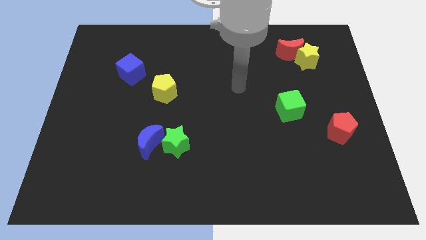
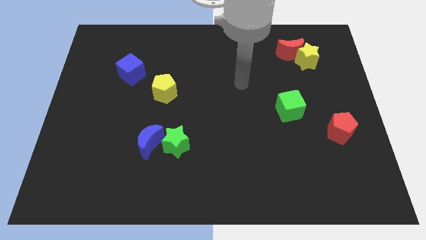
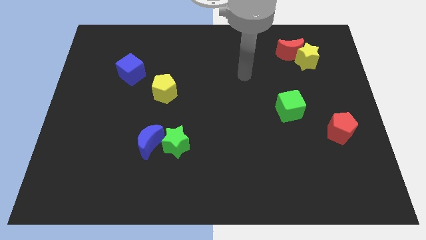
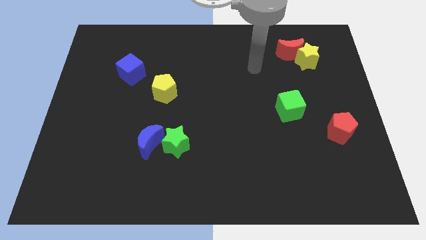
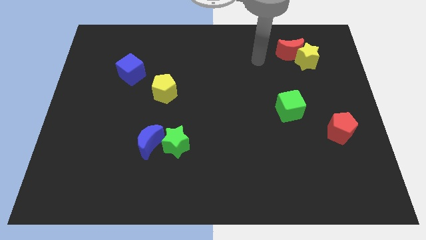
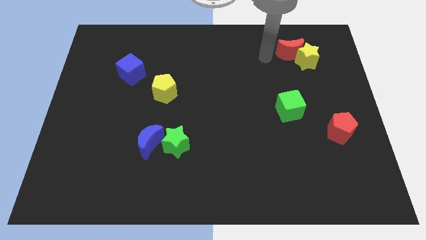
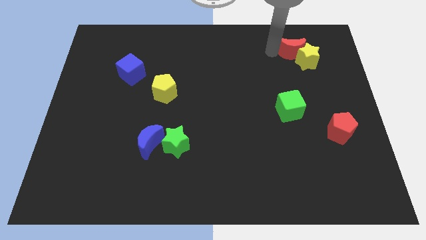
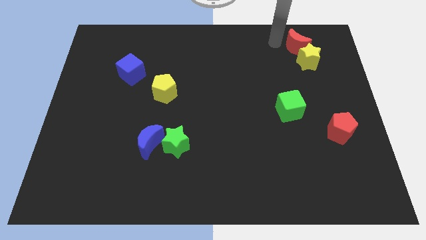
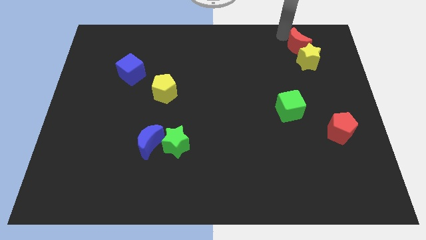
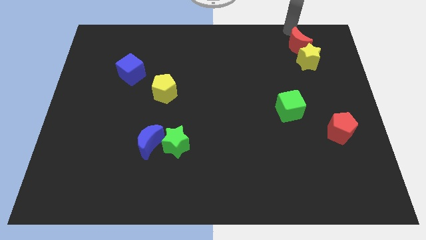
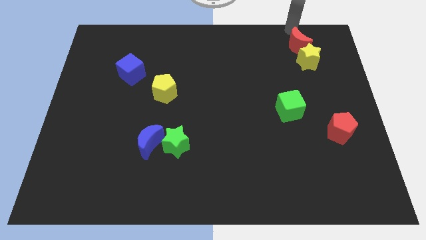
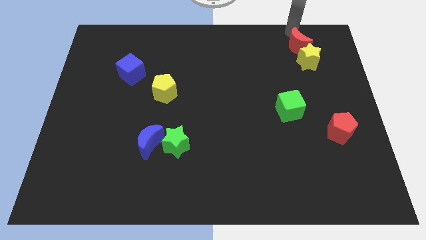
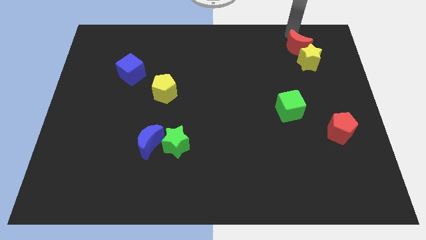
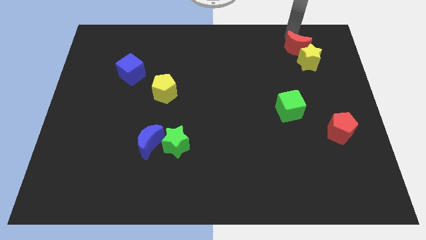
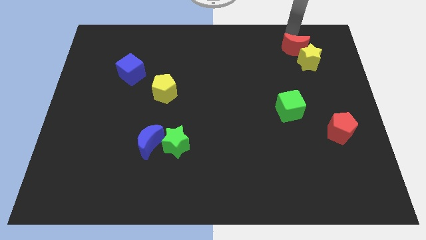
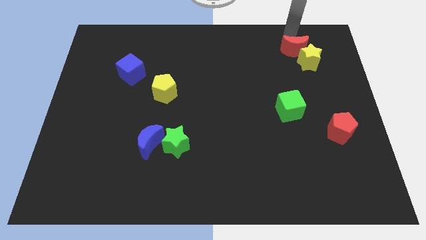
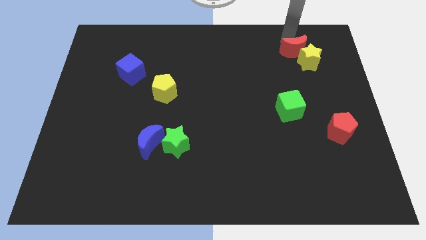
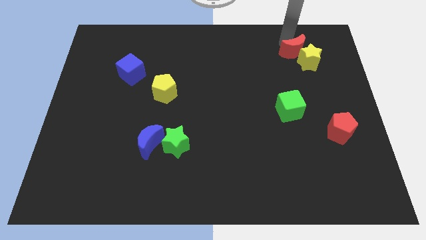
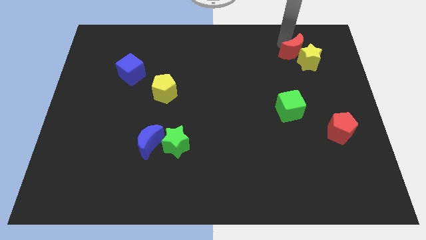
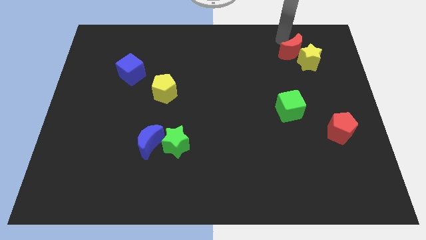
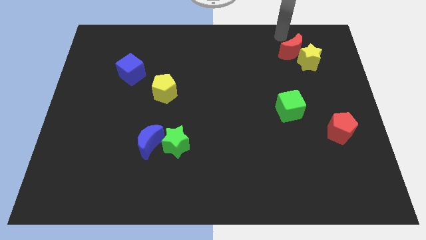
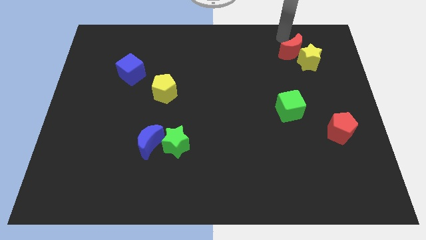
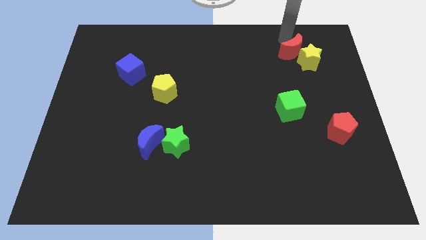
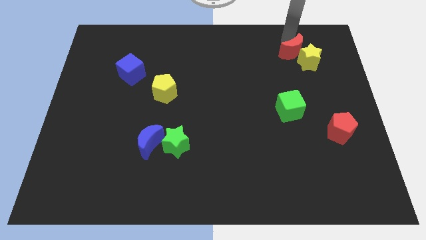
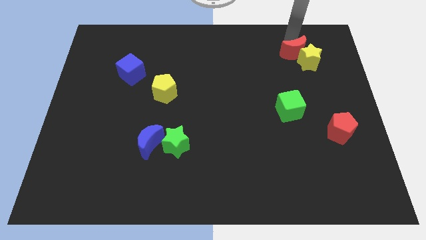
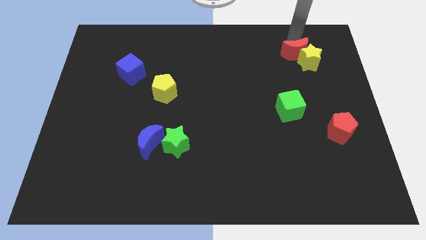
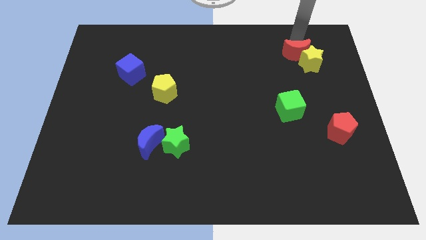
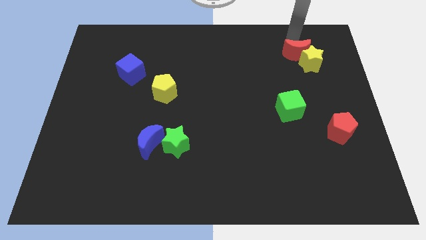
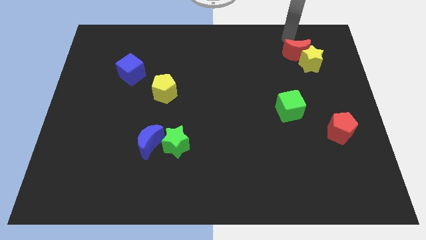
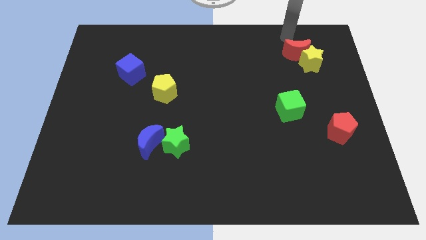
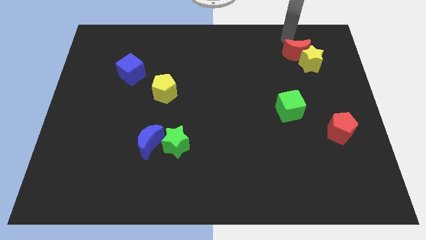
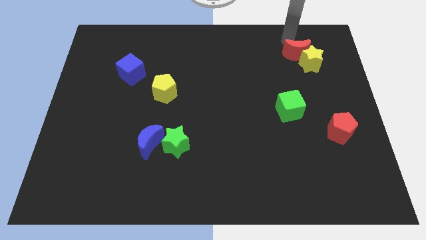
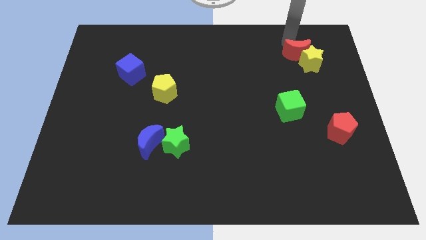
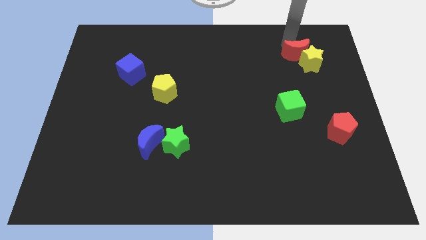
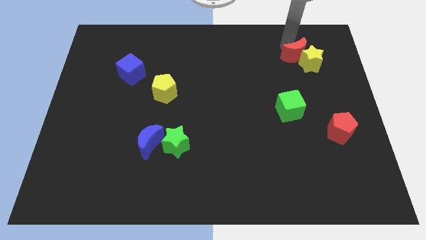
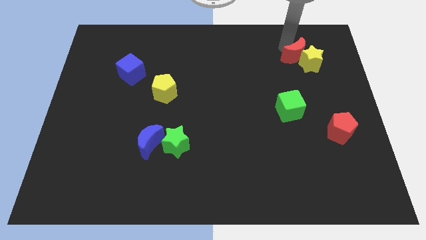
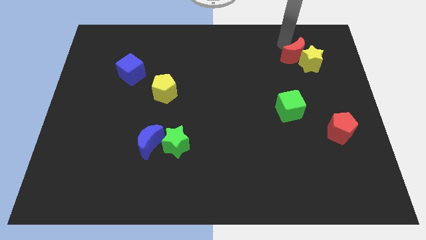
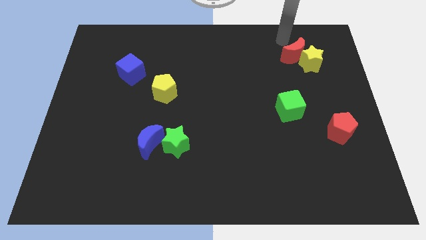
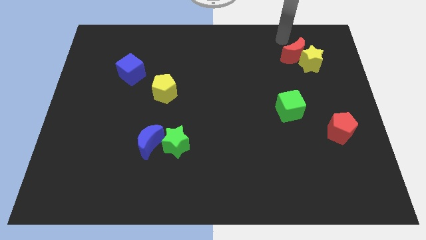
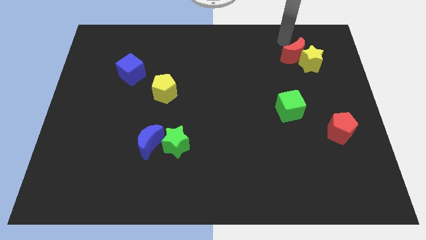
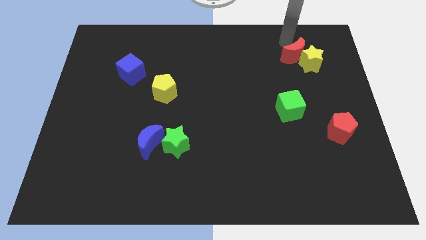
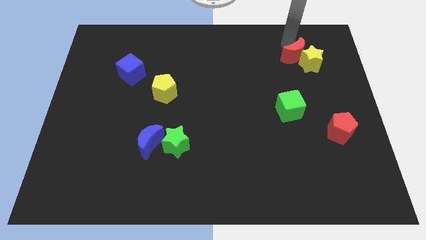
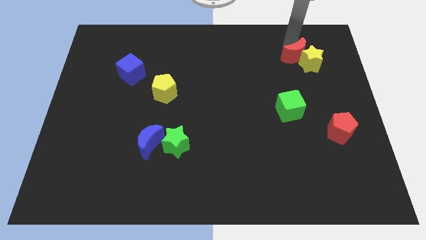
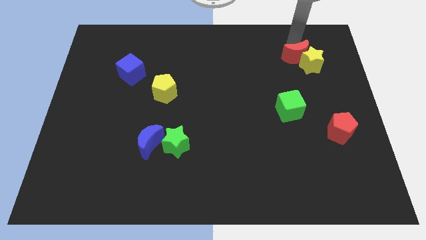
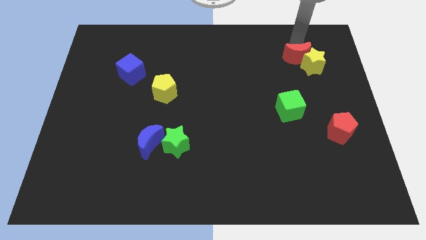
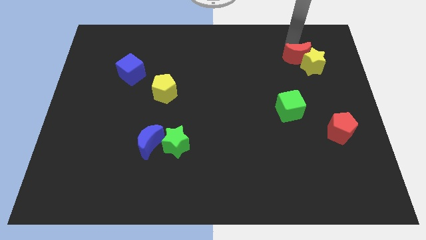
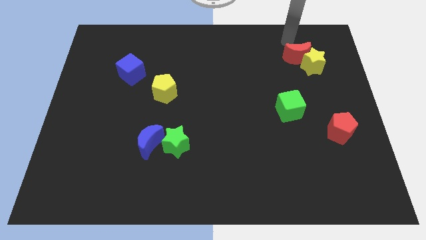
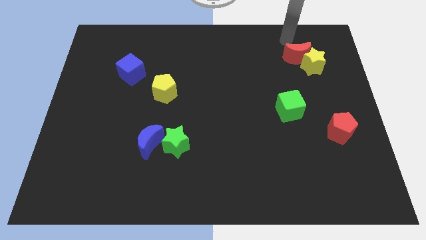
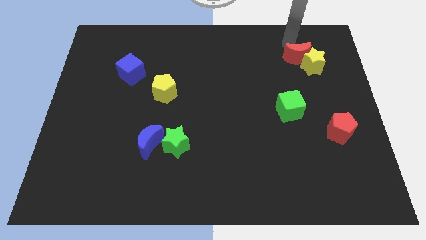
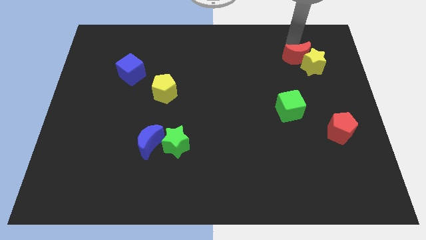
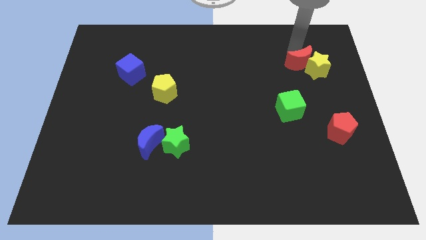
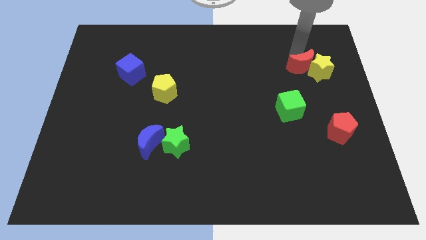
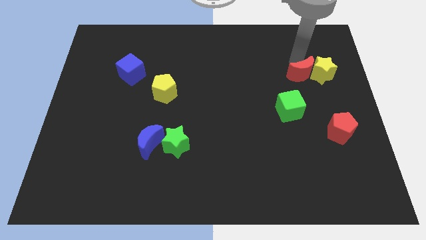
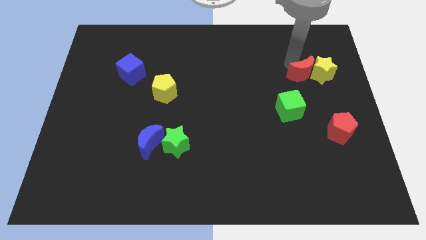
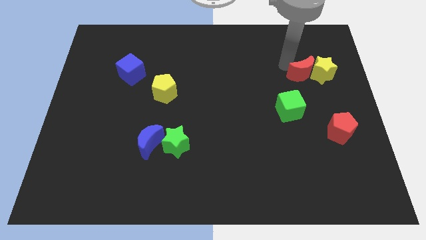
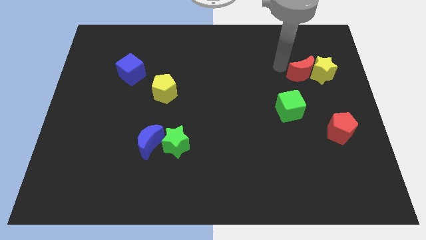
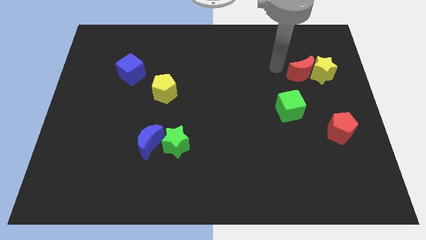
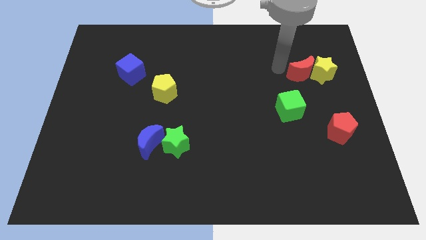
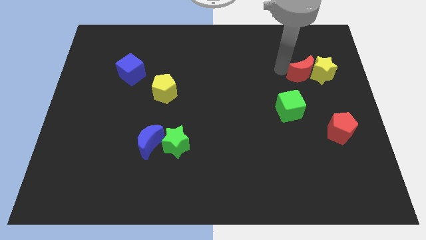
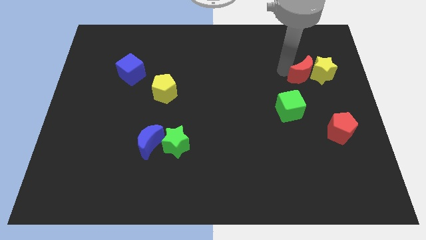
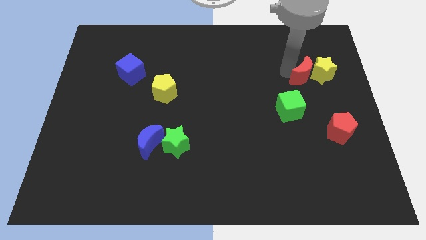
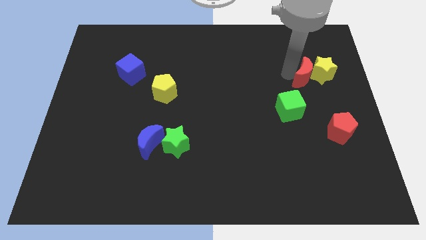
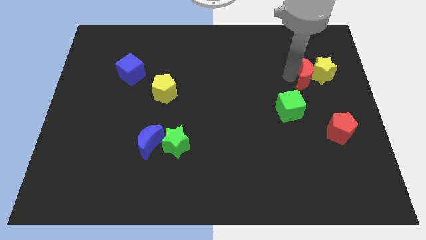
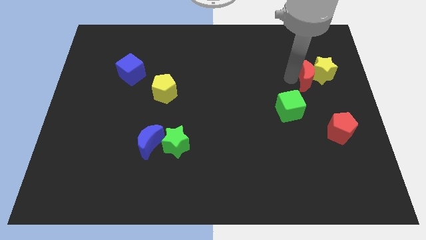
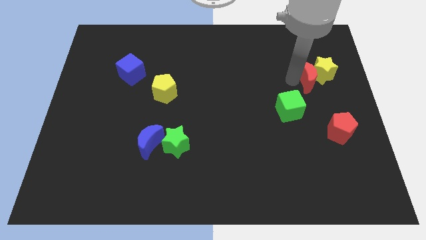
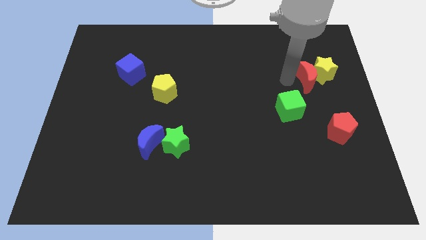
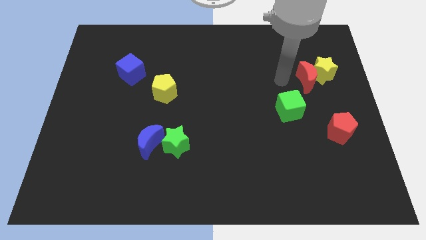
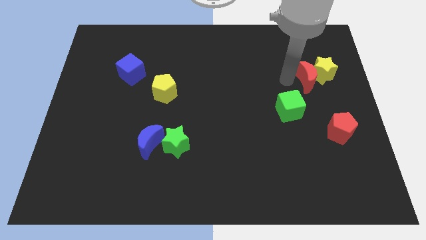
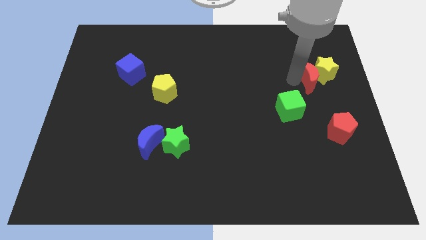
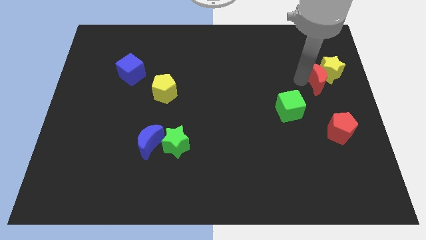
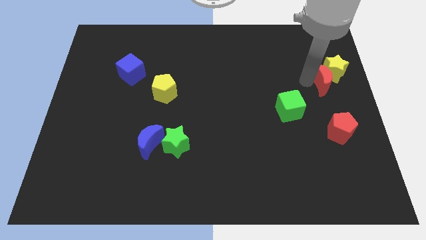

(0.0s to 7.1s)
put the red moon to the right side
